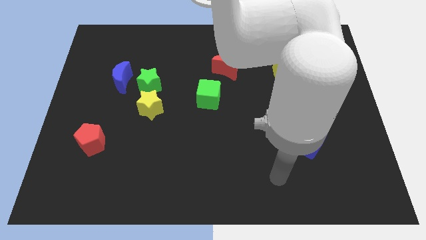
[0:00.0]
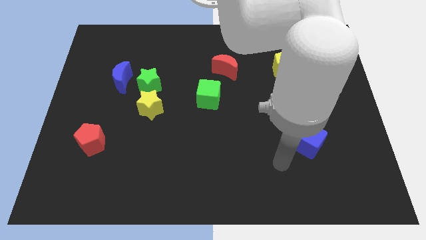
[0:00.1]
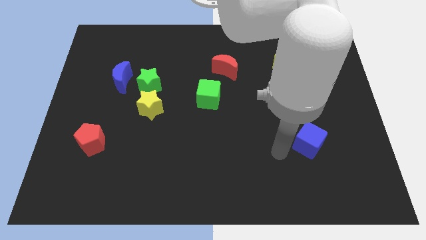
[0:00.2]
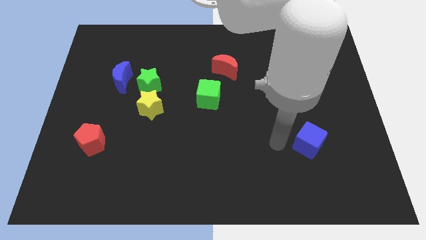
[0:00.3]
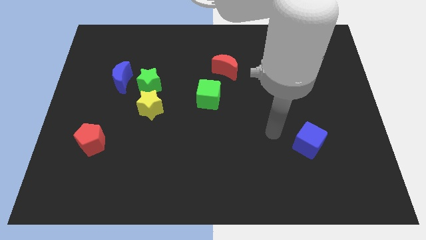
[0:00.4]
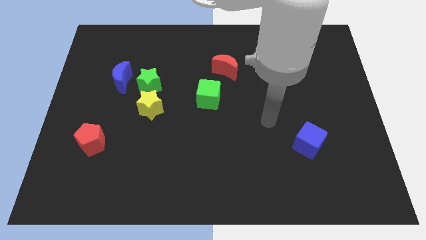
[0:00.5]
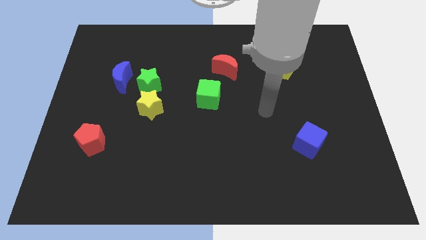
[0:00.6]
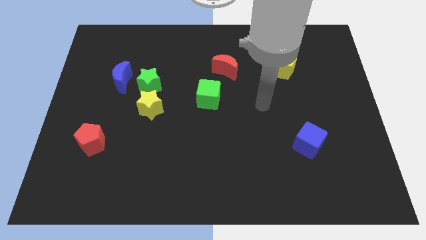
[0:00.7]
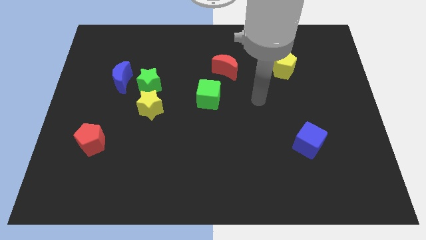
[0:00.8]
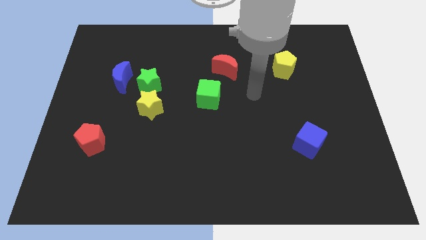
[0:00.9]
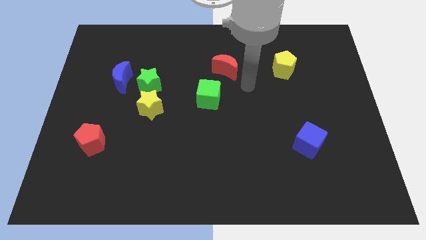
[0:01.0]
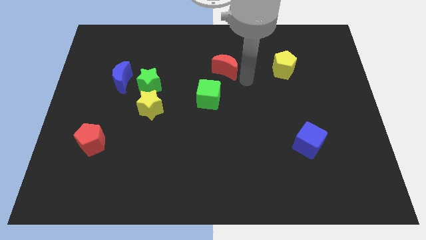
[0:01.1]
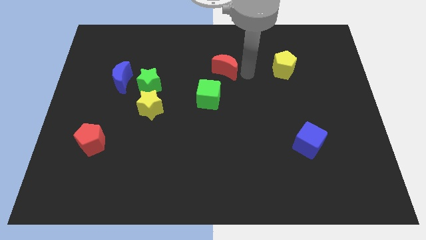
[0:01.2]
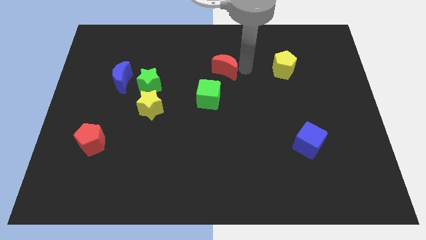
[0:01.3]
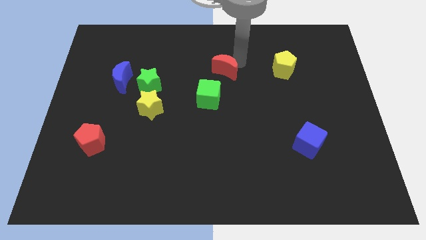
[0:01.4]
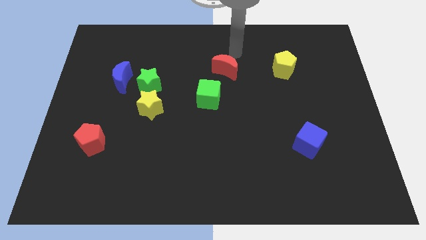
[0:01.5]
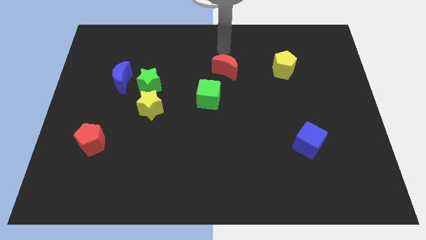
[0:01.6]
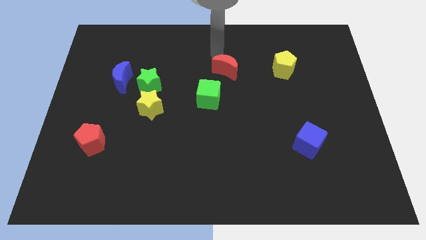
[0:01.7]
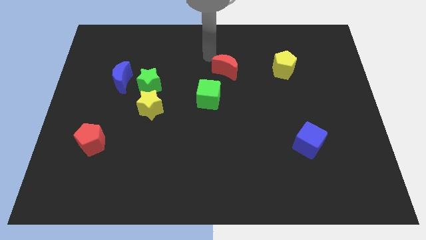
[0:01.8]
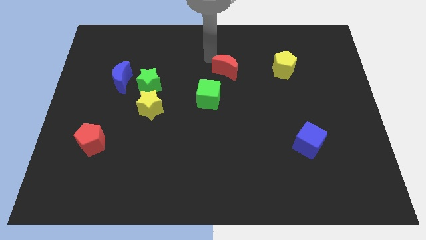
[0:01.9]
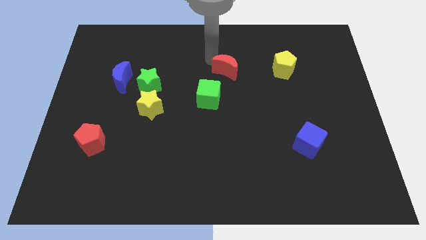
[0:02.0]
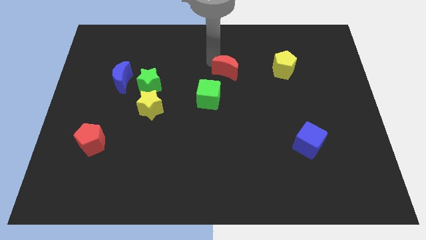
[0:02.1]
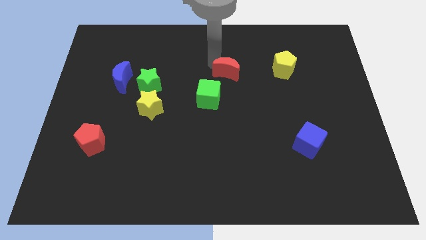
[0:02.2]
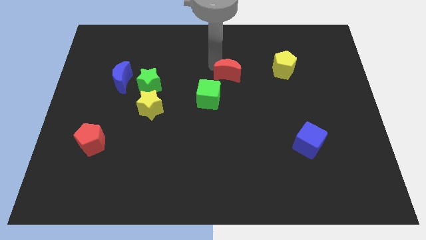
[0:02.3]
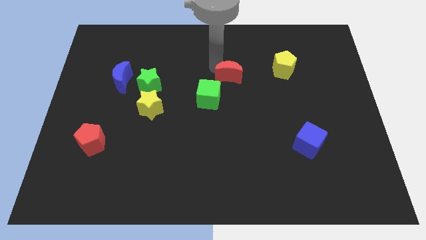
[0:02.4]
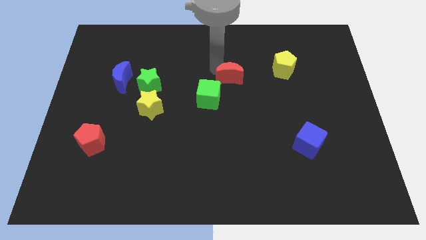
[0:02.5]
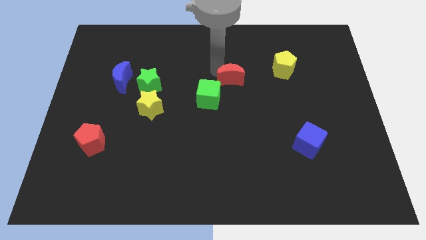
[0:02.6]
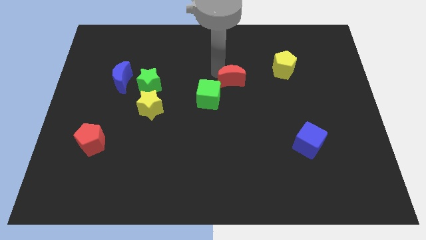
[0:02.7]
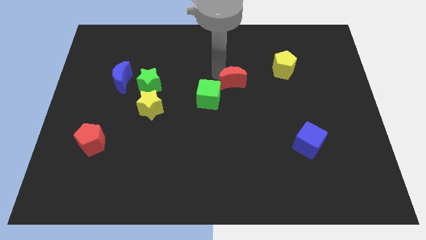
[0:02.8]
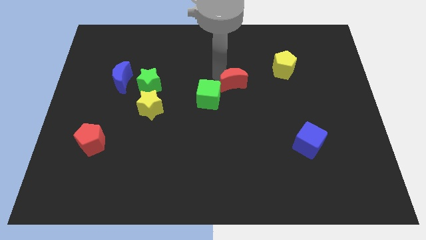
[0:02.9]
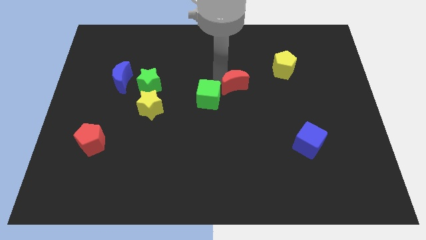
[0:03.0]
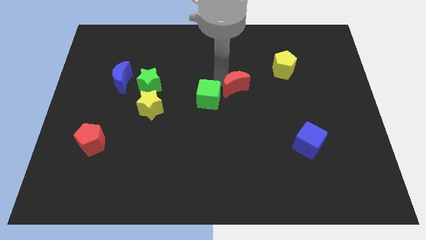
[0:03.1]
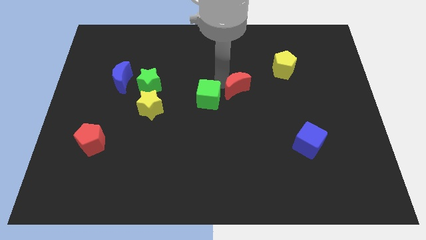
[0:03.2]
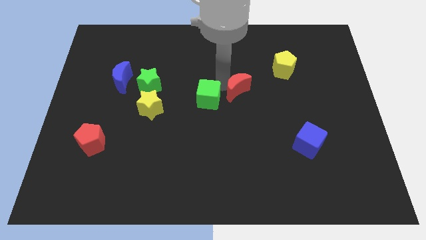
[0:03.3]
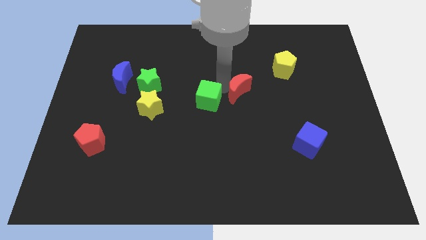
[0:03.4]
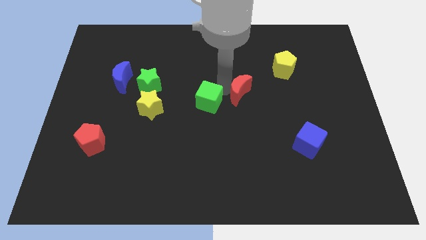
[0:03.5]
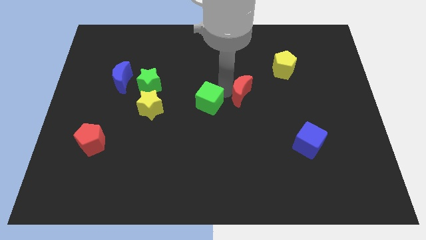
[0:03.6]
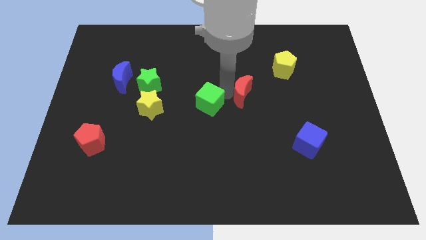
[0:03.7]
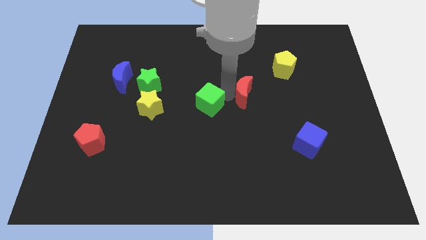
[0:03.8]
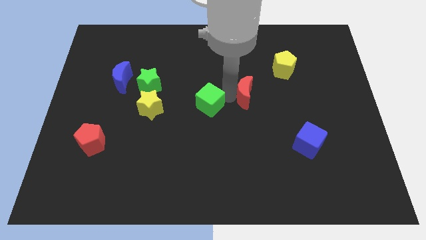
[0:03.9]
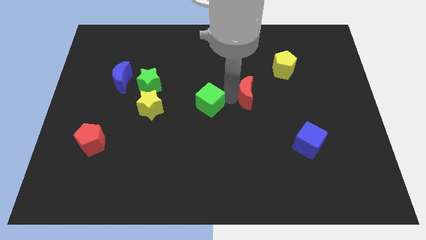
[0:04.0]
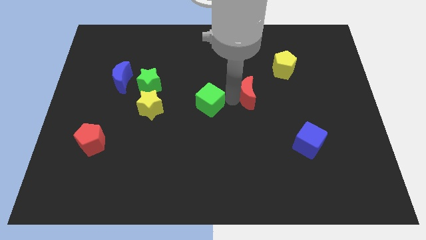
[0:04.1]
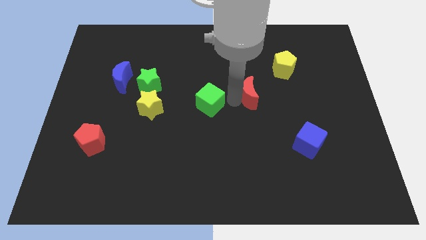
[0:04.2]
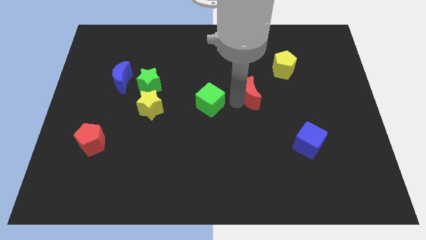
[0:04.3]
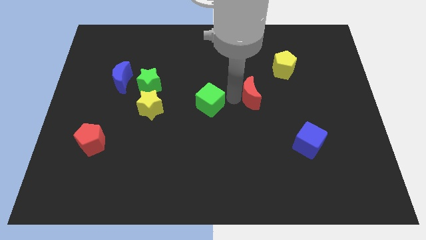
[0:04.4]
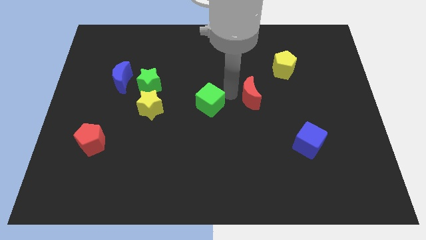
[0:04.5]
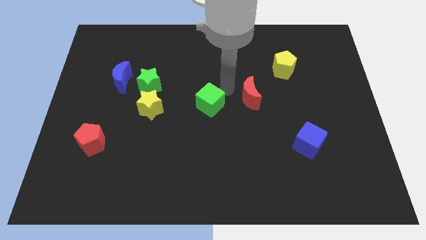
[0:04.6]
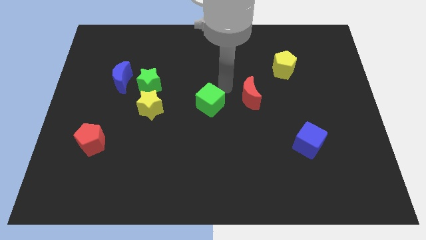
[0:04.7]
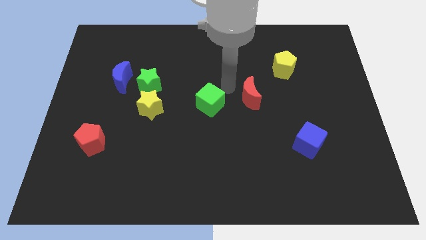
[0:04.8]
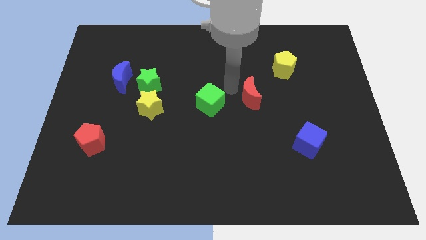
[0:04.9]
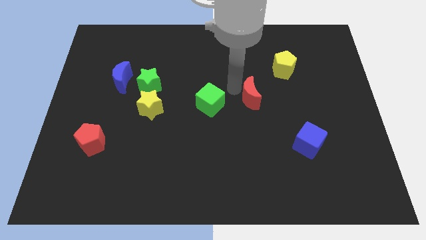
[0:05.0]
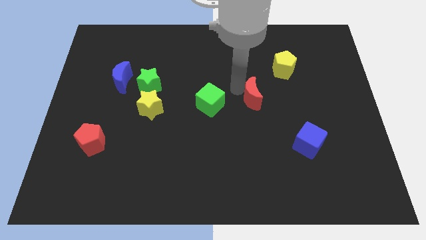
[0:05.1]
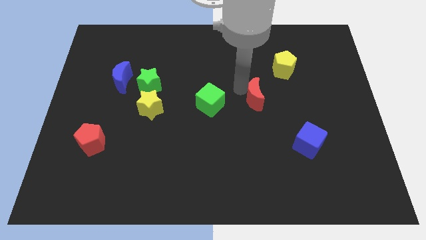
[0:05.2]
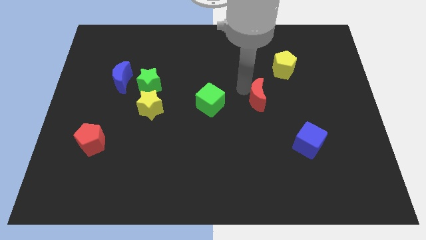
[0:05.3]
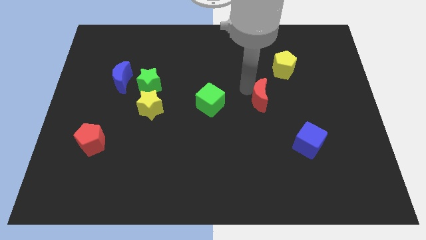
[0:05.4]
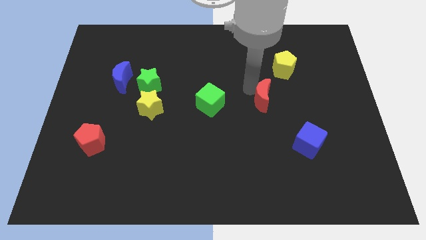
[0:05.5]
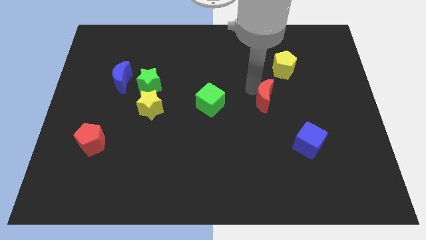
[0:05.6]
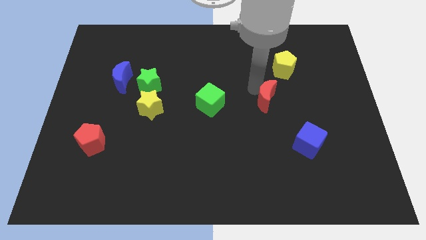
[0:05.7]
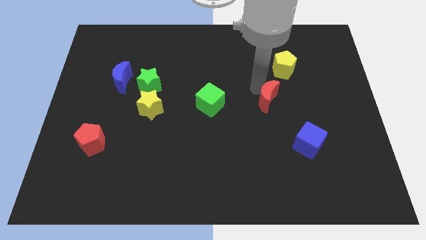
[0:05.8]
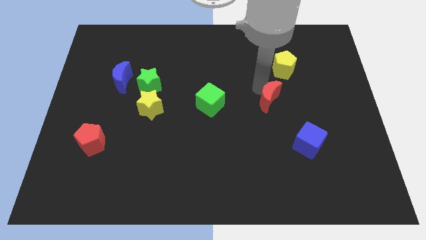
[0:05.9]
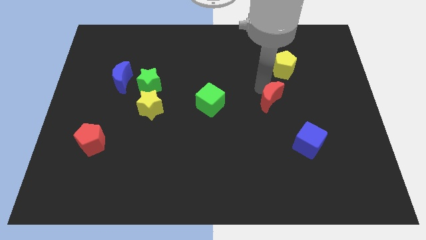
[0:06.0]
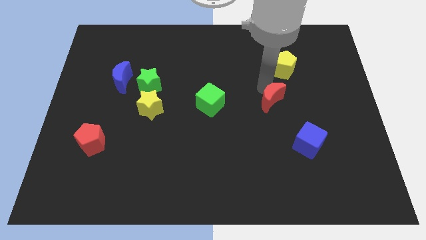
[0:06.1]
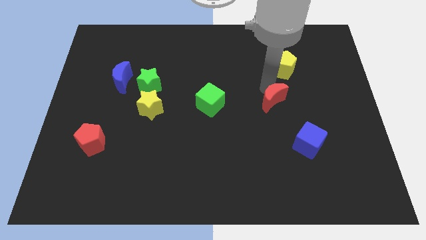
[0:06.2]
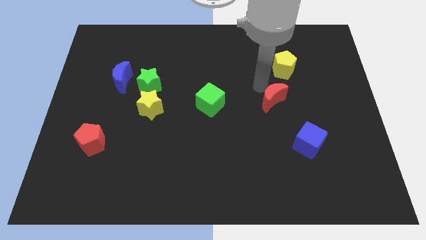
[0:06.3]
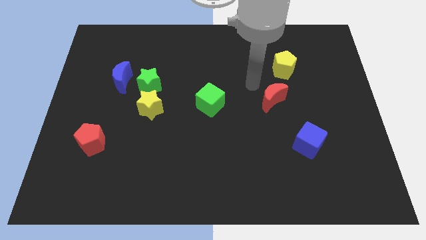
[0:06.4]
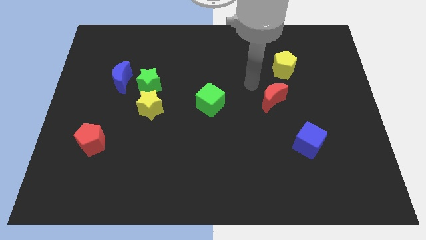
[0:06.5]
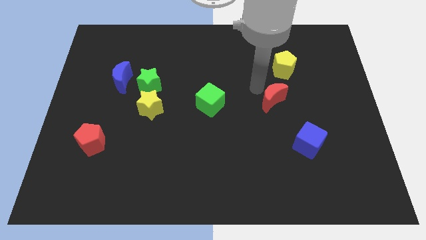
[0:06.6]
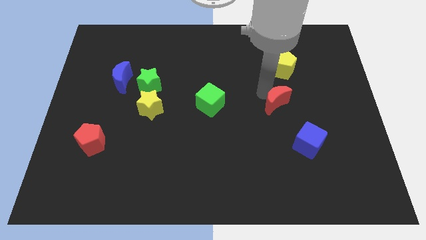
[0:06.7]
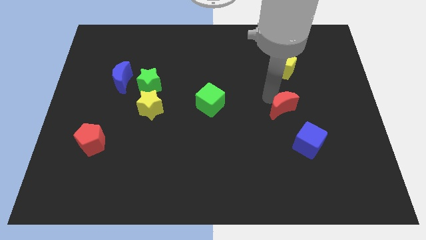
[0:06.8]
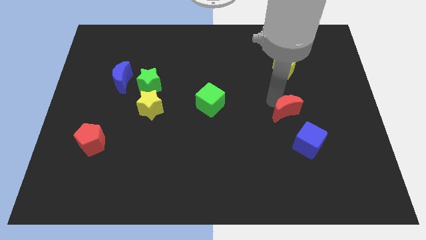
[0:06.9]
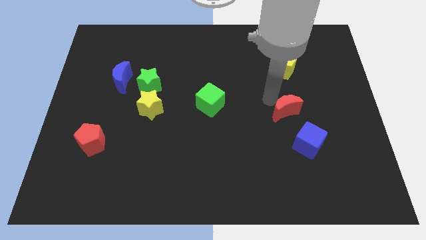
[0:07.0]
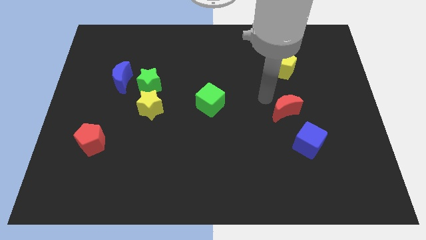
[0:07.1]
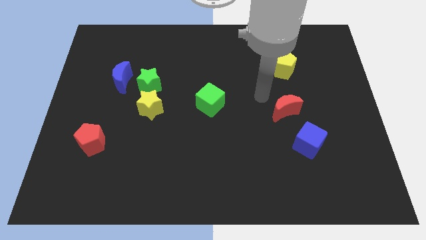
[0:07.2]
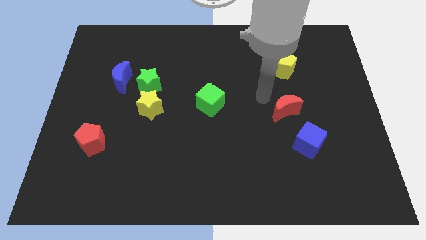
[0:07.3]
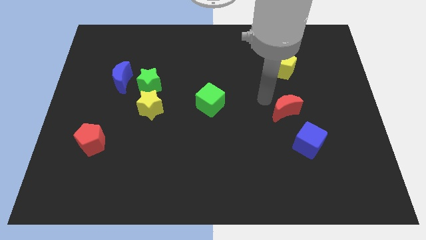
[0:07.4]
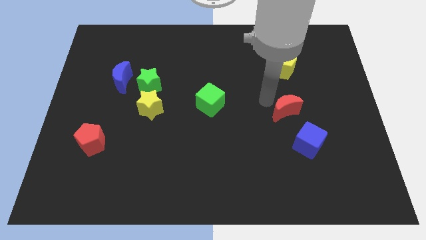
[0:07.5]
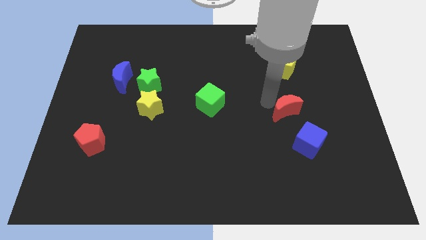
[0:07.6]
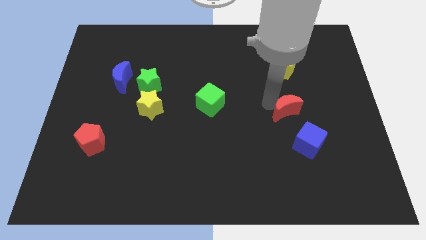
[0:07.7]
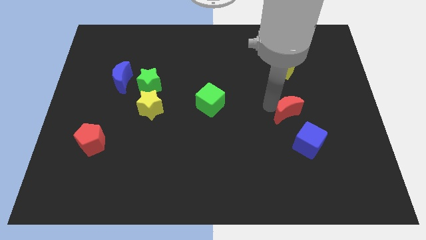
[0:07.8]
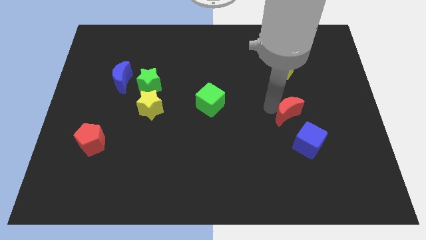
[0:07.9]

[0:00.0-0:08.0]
move the red moon diagonally down and right

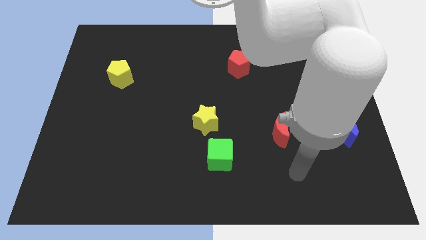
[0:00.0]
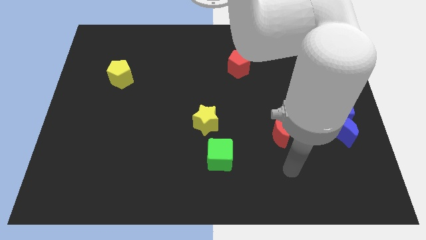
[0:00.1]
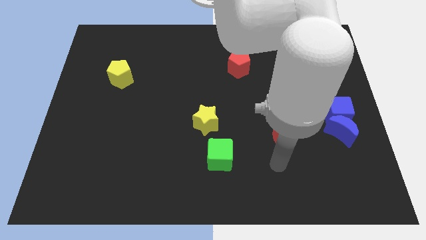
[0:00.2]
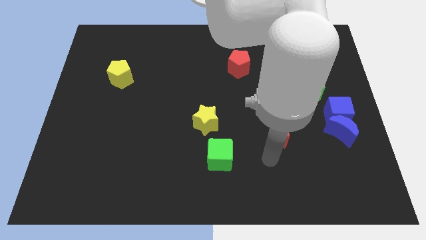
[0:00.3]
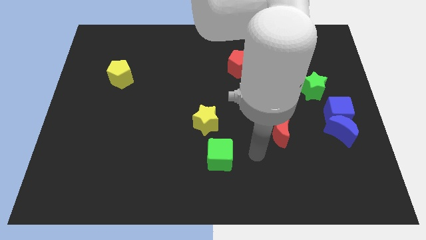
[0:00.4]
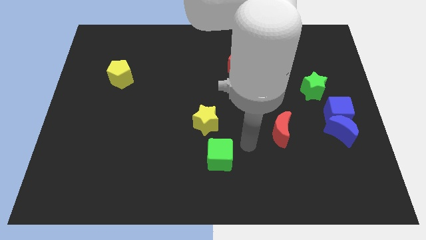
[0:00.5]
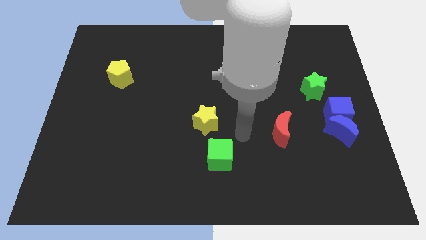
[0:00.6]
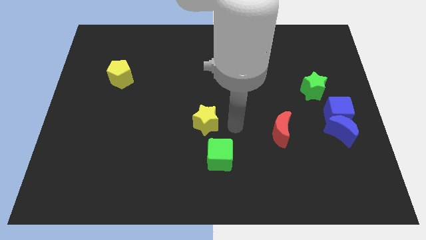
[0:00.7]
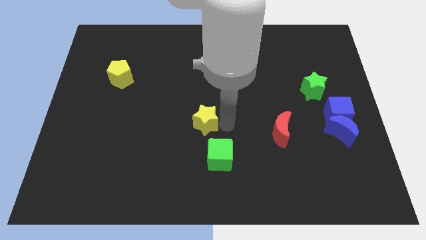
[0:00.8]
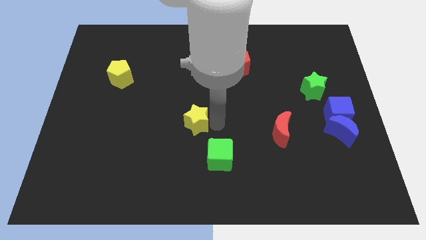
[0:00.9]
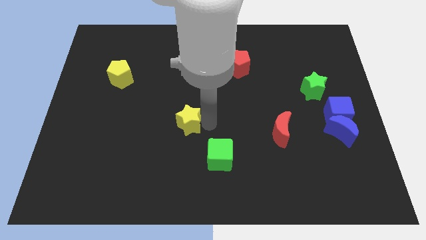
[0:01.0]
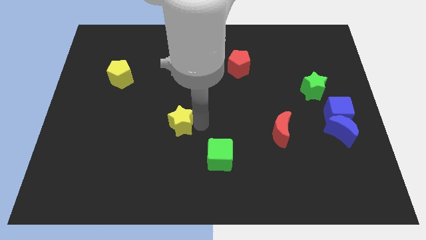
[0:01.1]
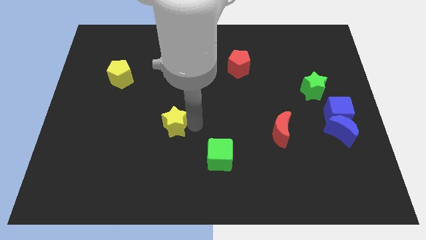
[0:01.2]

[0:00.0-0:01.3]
slightly push the yellow star left
